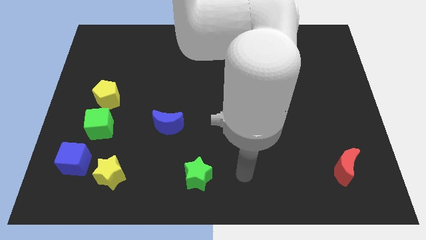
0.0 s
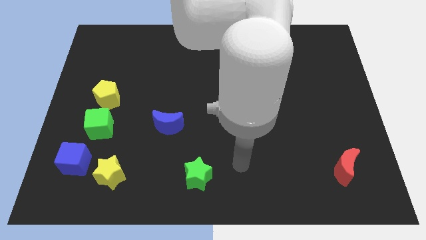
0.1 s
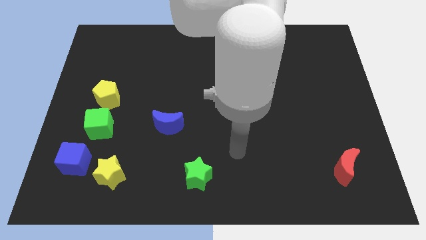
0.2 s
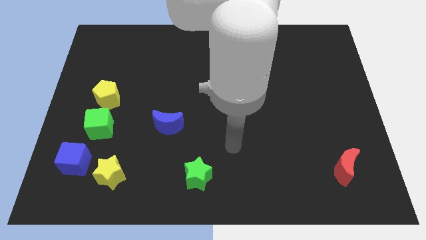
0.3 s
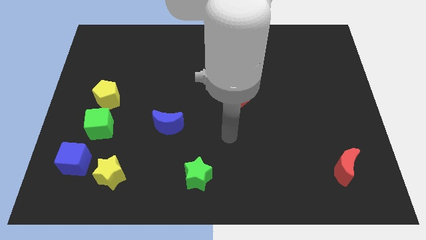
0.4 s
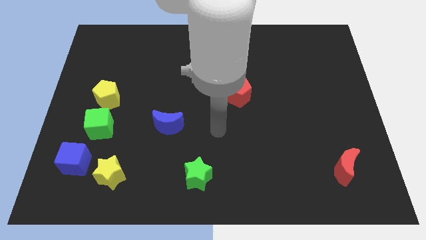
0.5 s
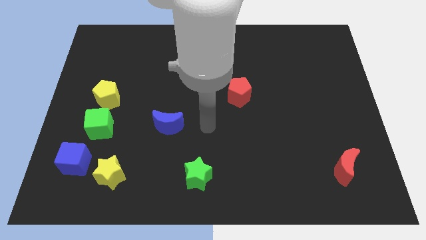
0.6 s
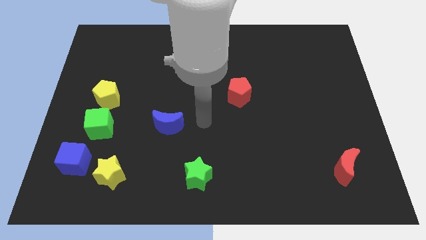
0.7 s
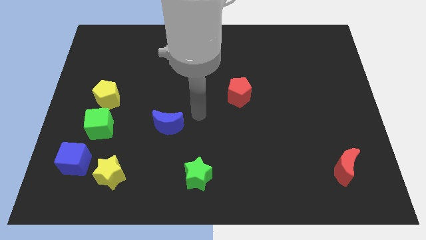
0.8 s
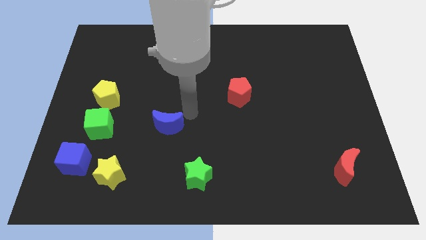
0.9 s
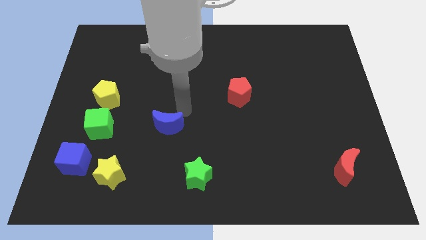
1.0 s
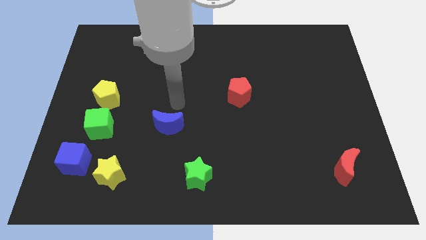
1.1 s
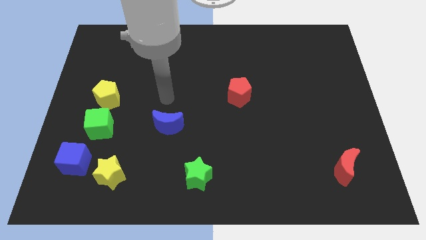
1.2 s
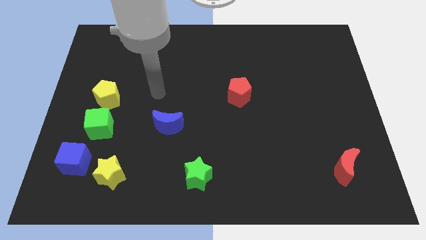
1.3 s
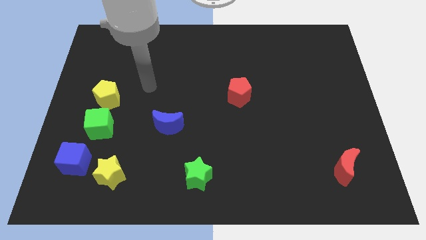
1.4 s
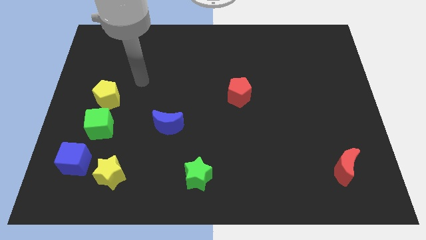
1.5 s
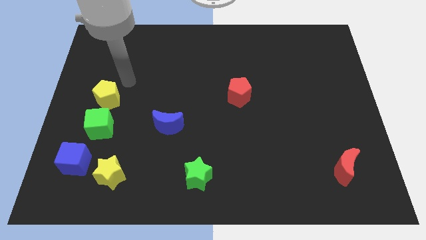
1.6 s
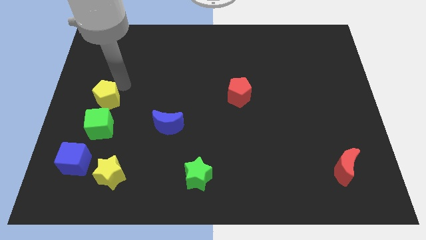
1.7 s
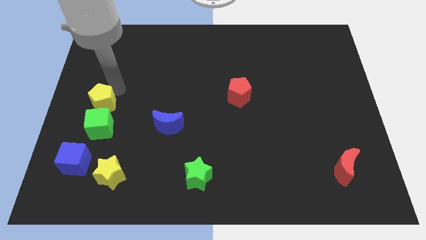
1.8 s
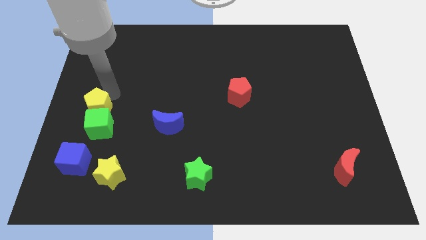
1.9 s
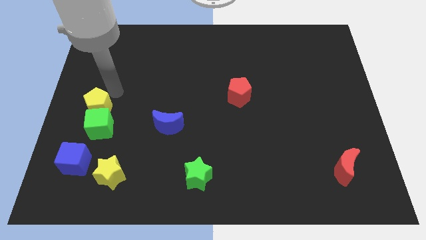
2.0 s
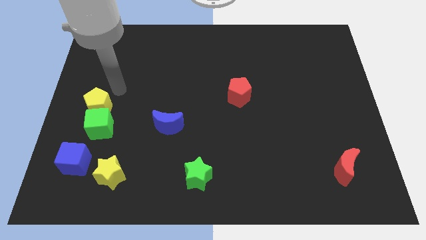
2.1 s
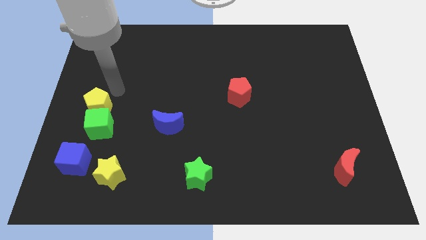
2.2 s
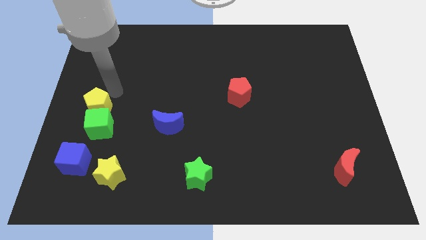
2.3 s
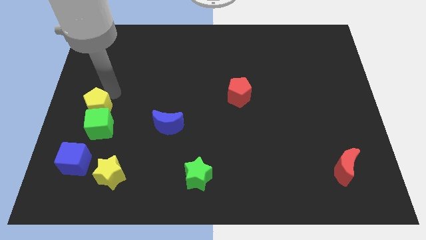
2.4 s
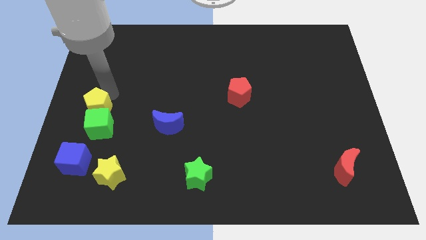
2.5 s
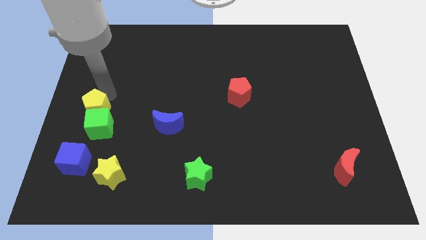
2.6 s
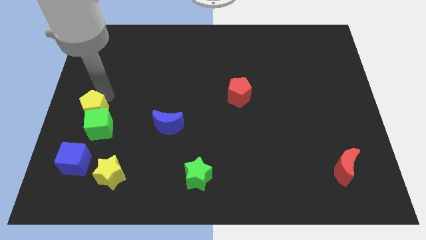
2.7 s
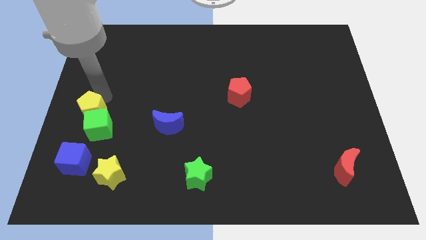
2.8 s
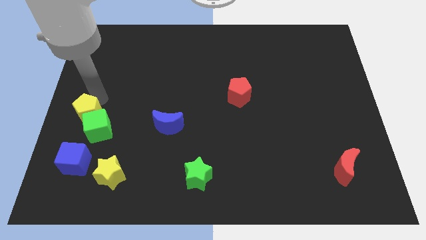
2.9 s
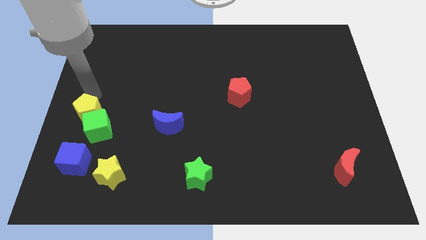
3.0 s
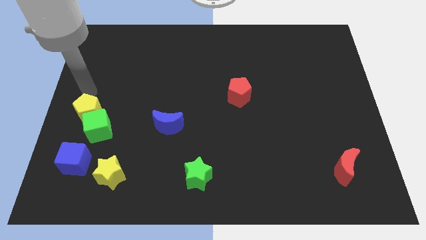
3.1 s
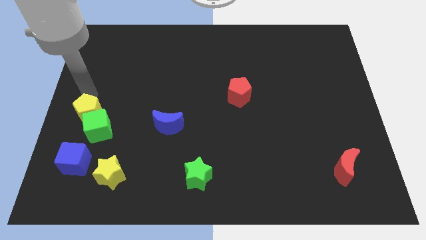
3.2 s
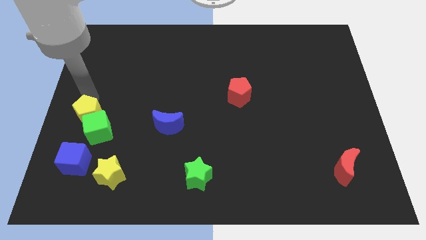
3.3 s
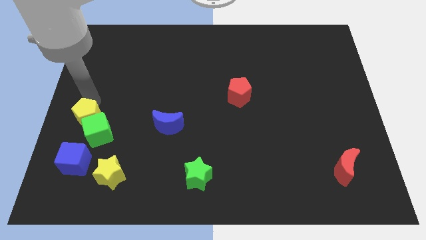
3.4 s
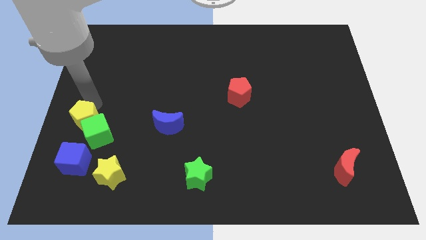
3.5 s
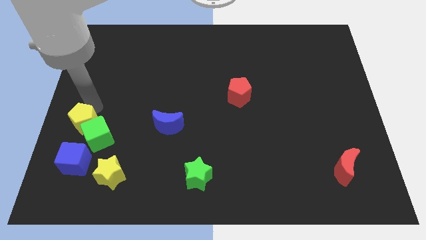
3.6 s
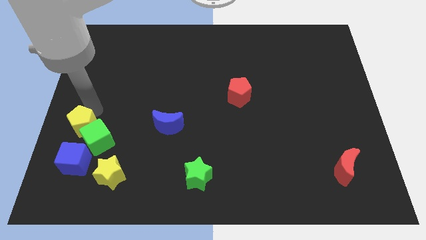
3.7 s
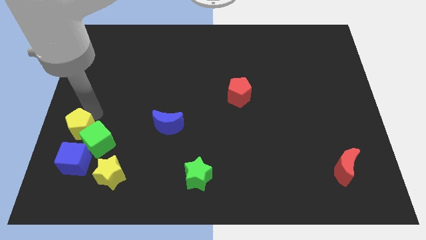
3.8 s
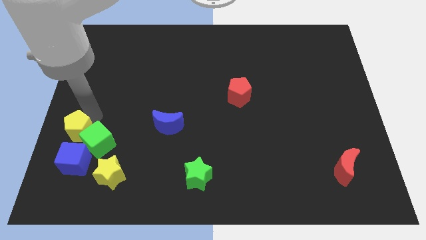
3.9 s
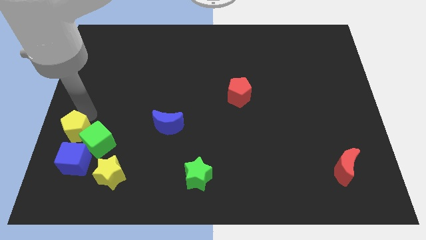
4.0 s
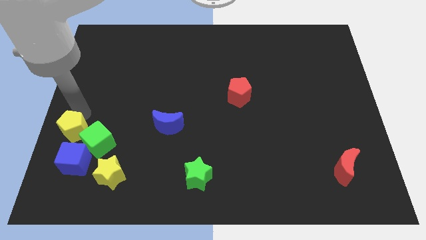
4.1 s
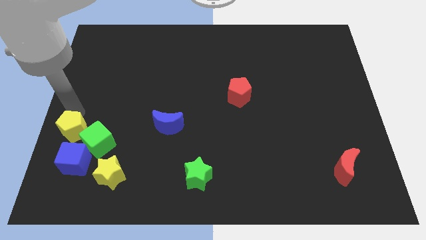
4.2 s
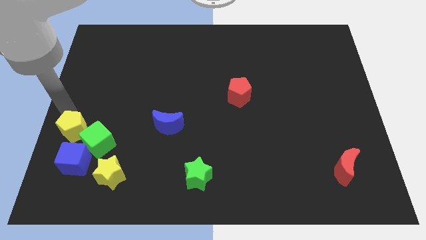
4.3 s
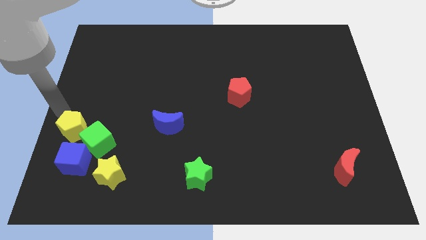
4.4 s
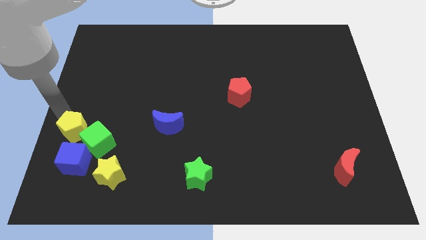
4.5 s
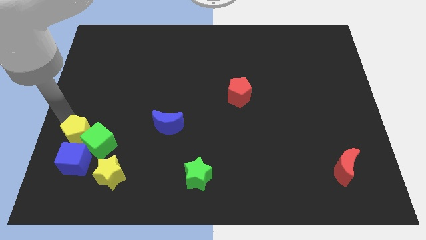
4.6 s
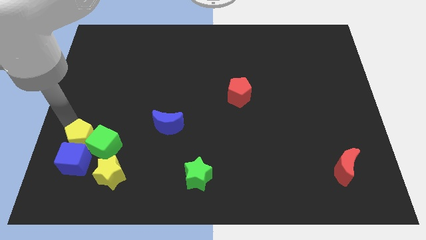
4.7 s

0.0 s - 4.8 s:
push the yellow pentagon to the top left of the yellow star

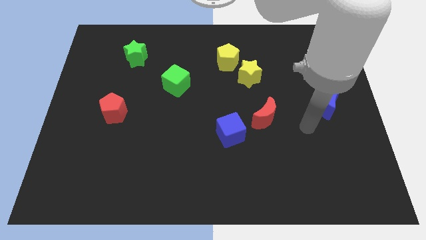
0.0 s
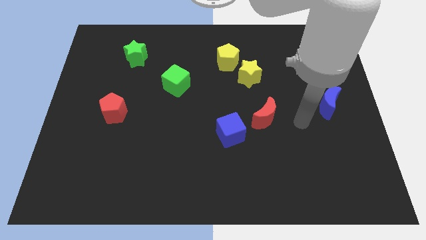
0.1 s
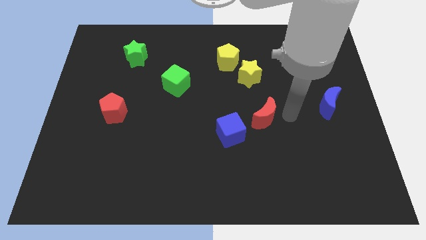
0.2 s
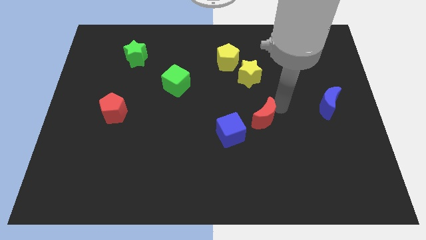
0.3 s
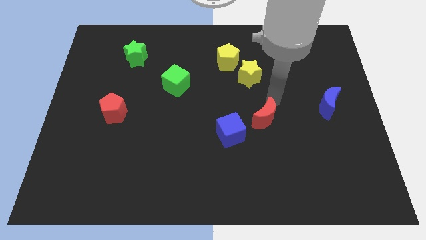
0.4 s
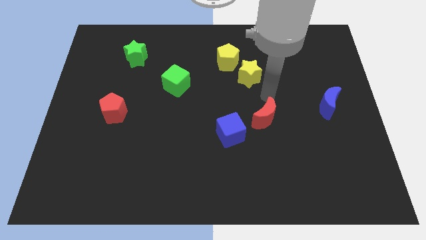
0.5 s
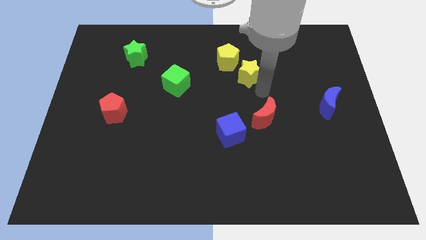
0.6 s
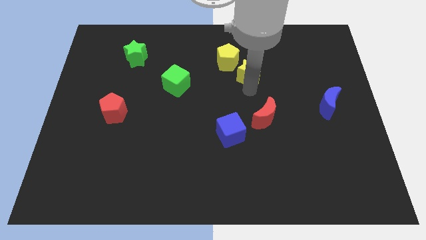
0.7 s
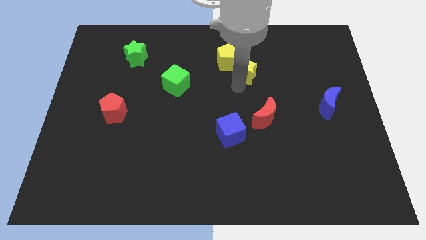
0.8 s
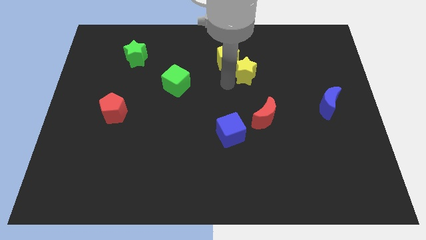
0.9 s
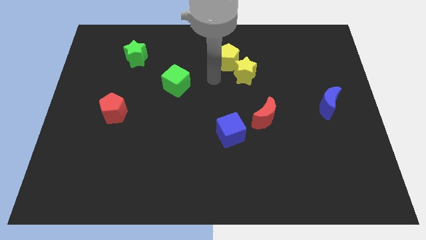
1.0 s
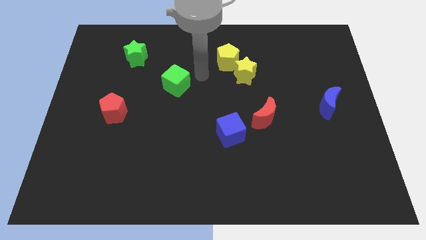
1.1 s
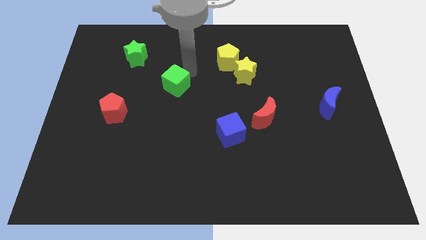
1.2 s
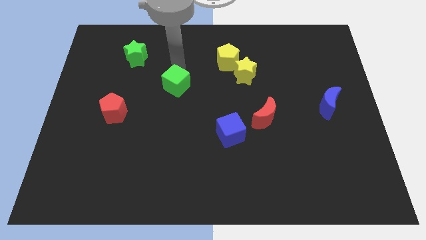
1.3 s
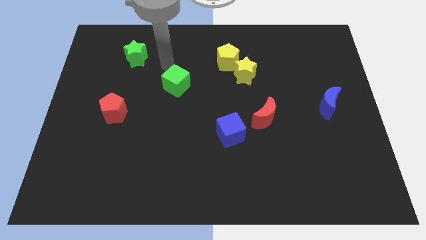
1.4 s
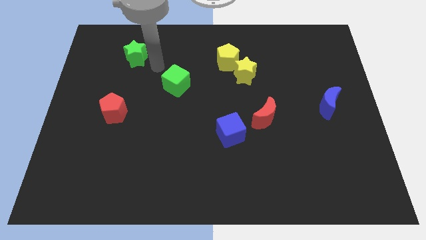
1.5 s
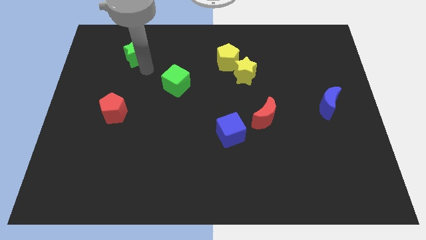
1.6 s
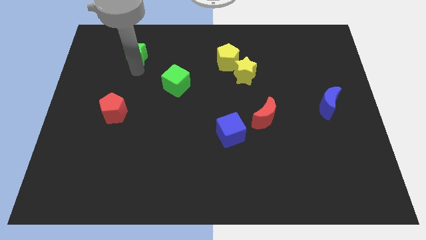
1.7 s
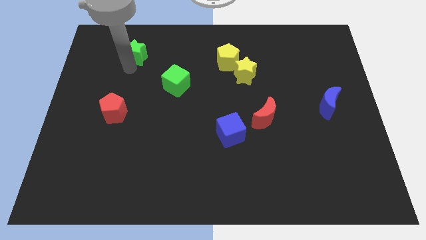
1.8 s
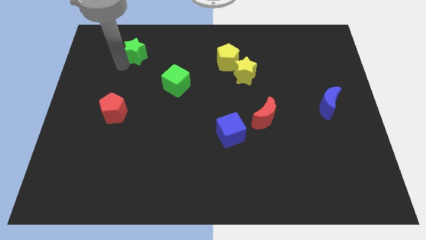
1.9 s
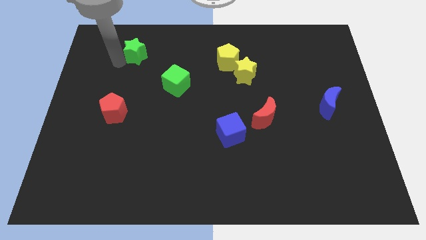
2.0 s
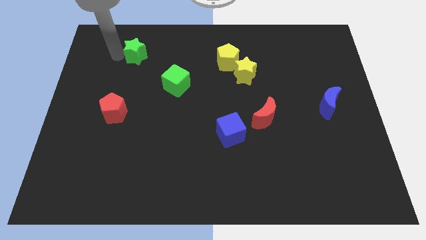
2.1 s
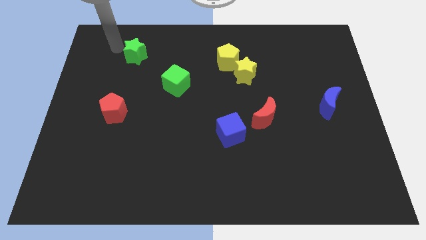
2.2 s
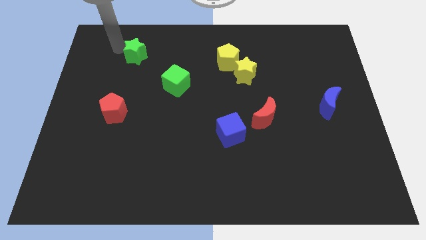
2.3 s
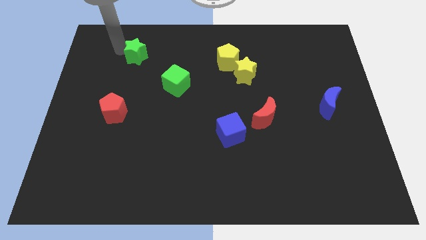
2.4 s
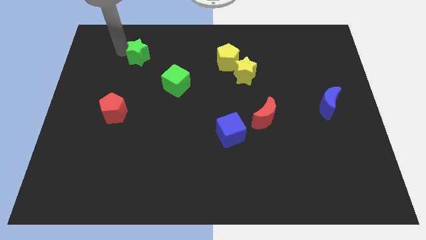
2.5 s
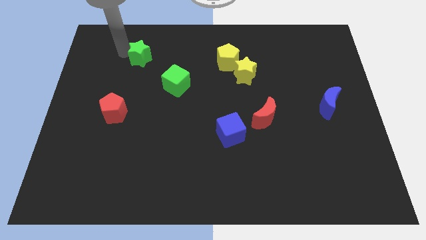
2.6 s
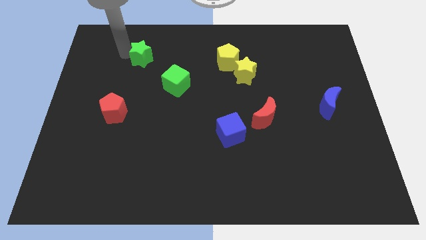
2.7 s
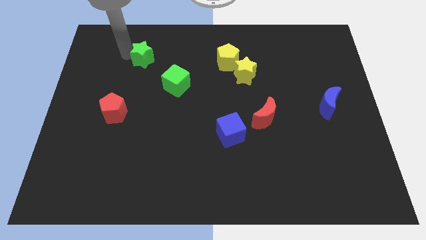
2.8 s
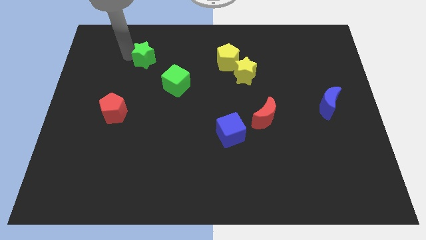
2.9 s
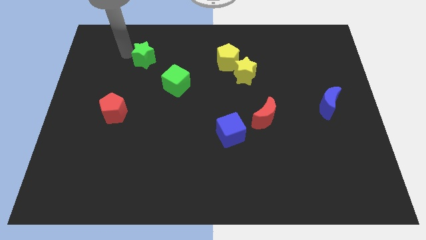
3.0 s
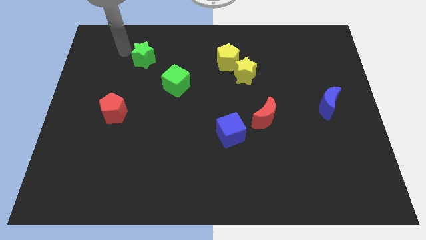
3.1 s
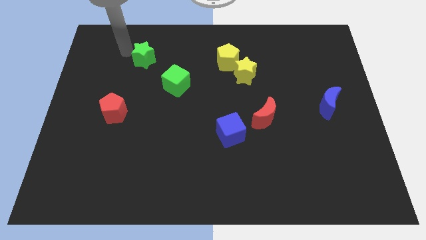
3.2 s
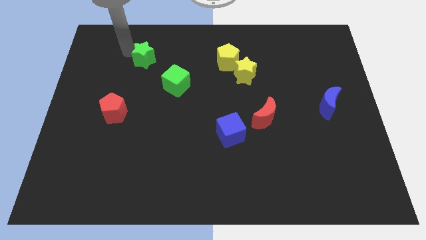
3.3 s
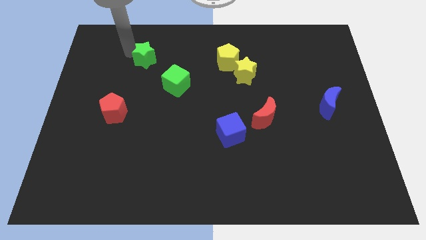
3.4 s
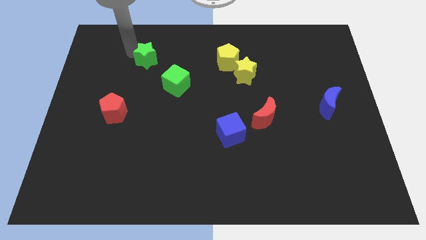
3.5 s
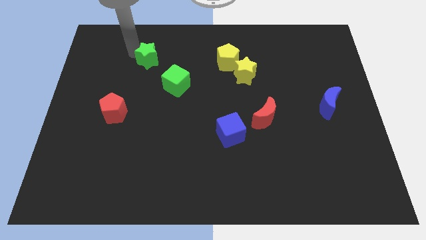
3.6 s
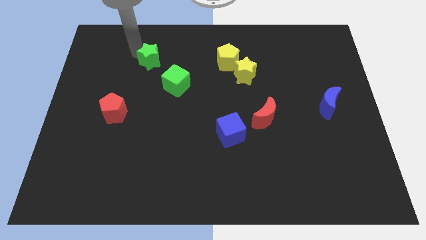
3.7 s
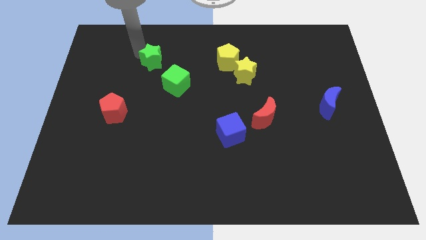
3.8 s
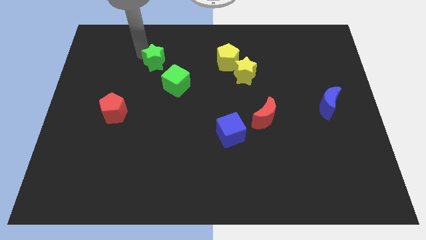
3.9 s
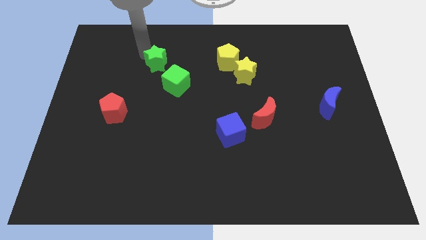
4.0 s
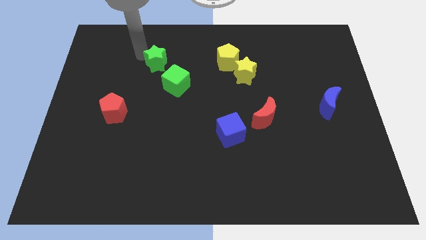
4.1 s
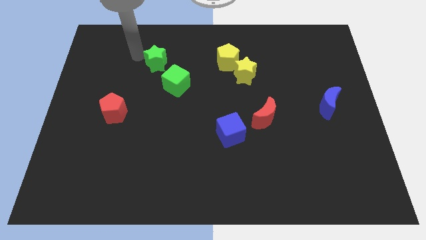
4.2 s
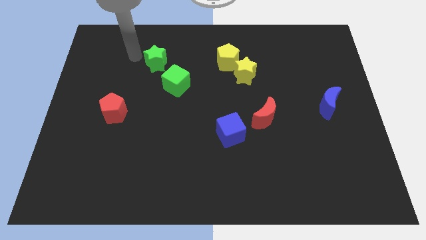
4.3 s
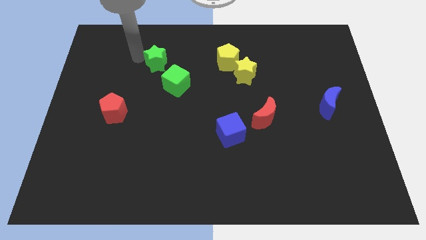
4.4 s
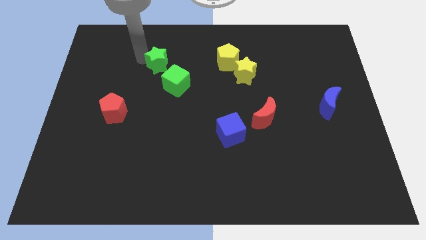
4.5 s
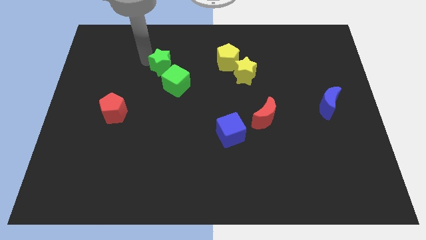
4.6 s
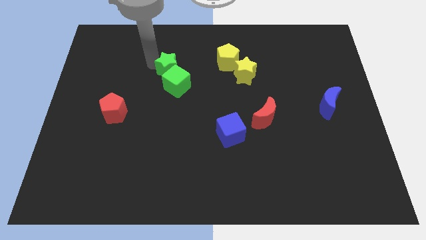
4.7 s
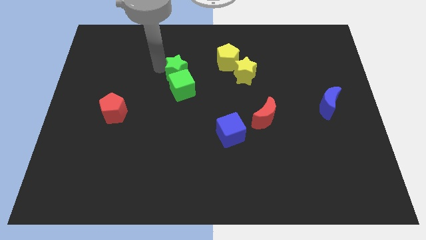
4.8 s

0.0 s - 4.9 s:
move the green star to the top right side of the green cube
